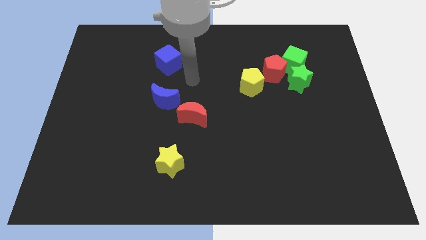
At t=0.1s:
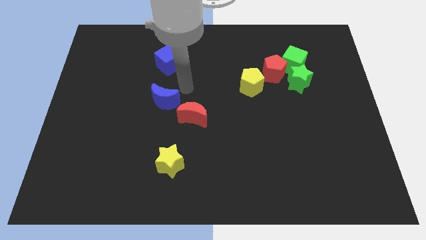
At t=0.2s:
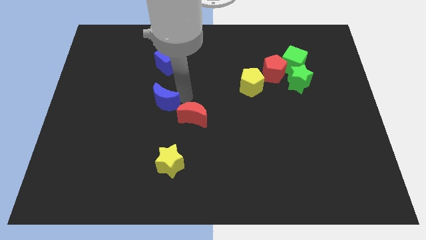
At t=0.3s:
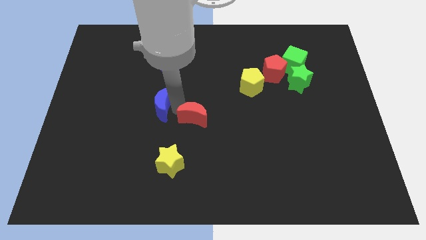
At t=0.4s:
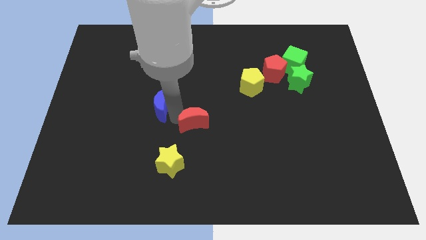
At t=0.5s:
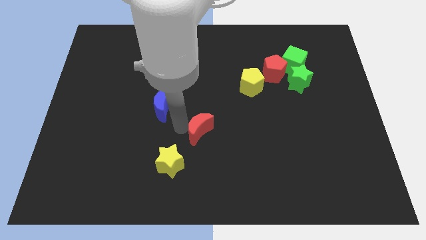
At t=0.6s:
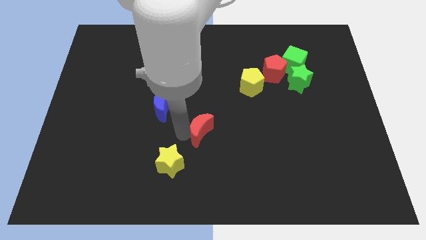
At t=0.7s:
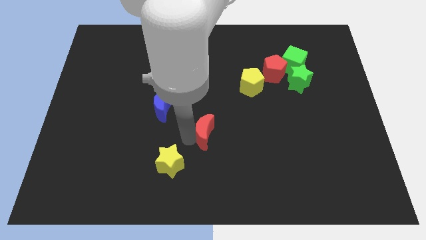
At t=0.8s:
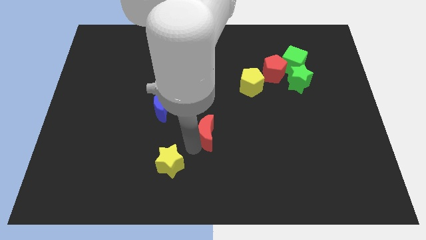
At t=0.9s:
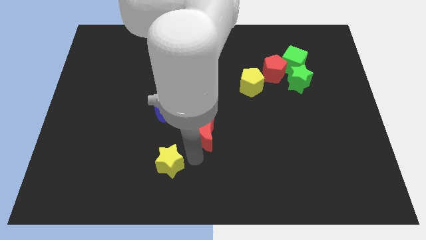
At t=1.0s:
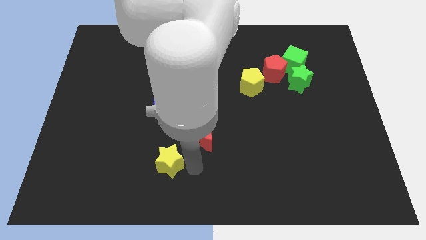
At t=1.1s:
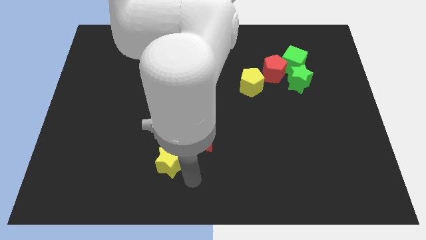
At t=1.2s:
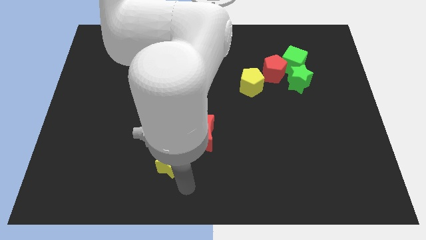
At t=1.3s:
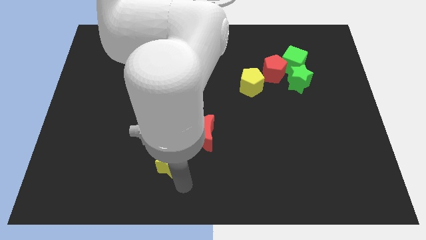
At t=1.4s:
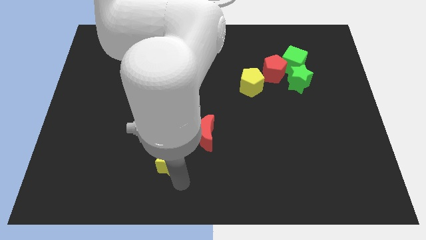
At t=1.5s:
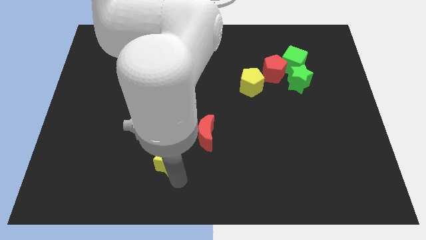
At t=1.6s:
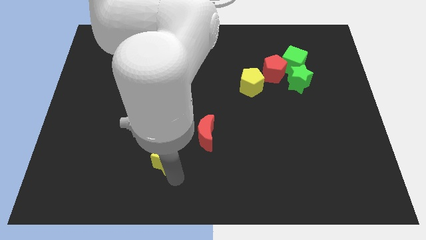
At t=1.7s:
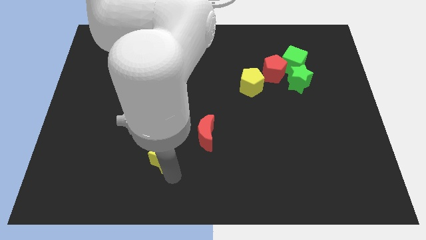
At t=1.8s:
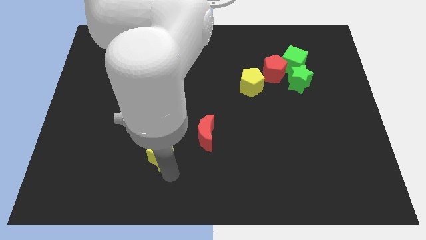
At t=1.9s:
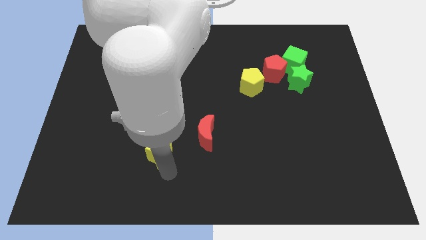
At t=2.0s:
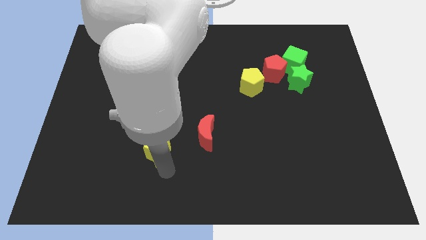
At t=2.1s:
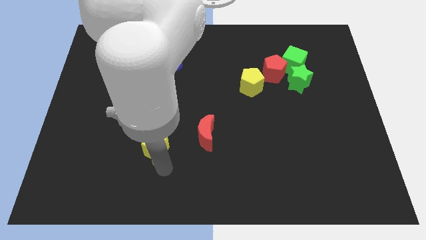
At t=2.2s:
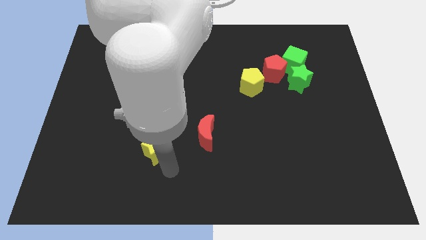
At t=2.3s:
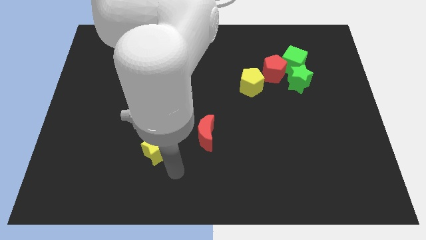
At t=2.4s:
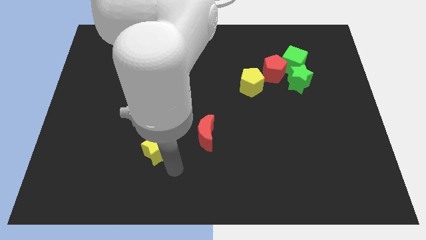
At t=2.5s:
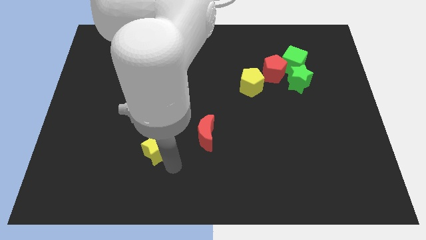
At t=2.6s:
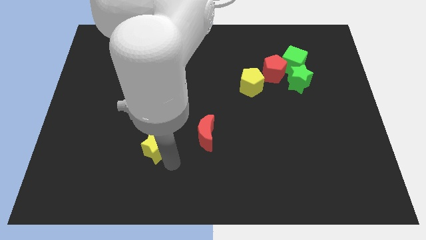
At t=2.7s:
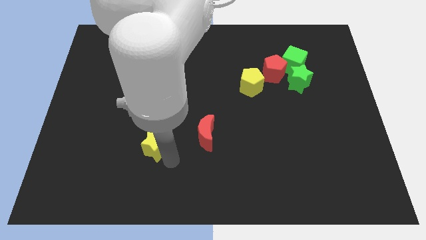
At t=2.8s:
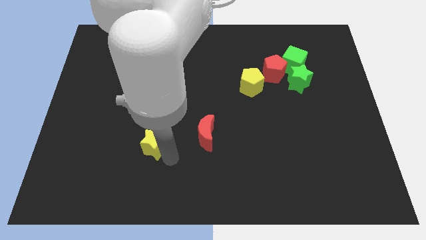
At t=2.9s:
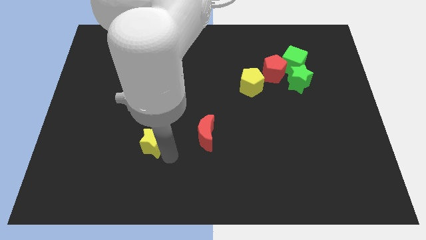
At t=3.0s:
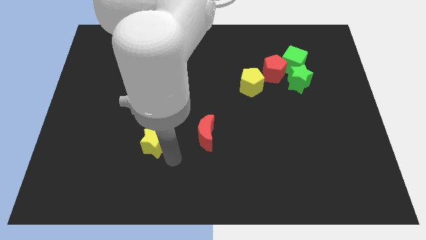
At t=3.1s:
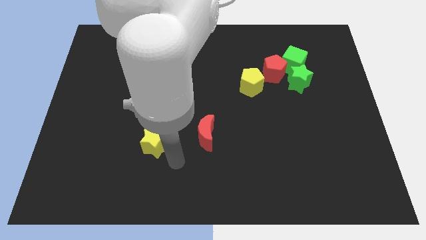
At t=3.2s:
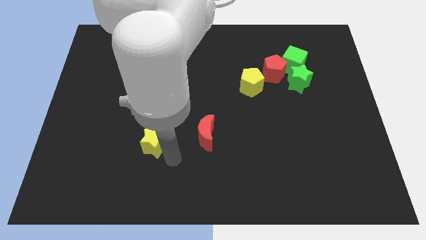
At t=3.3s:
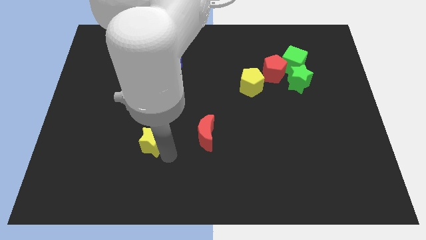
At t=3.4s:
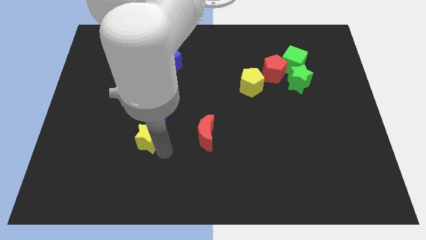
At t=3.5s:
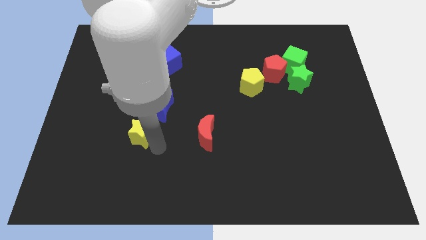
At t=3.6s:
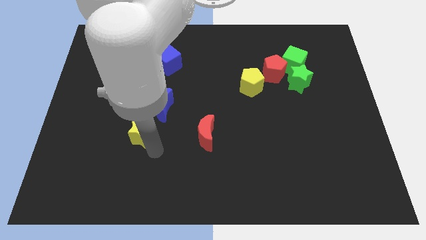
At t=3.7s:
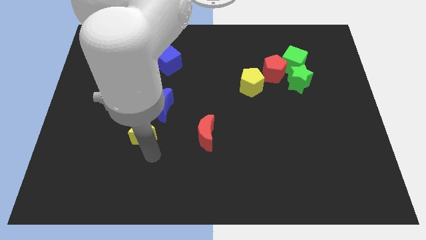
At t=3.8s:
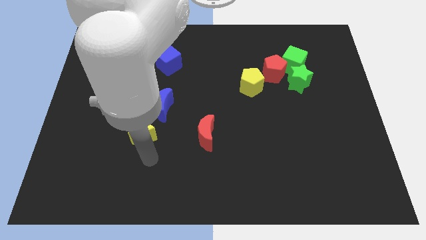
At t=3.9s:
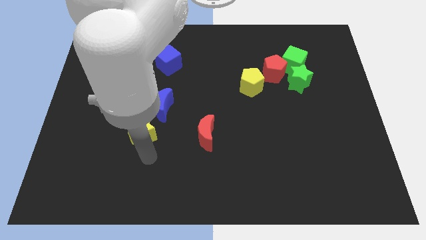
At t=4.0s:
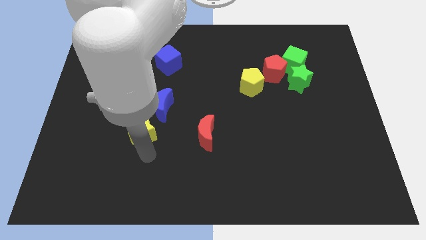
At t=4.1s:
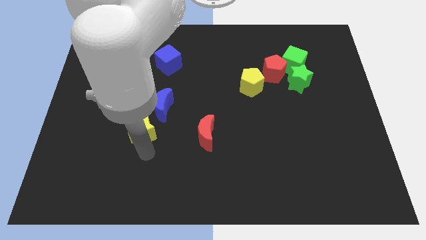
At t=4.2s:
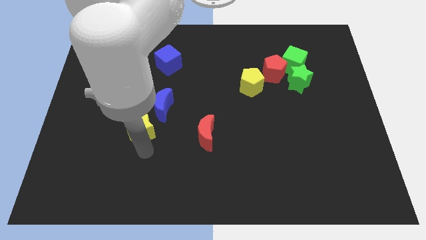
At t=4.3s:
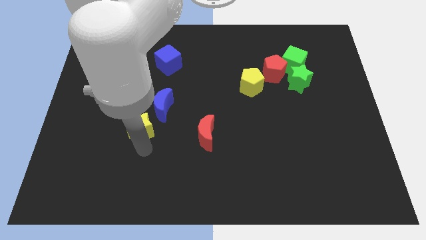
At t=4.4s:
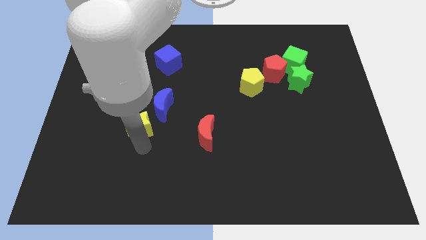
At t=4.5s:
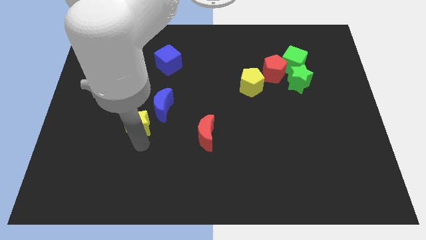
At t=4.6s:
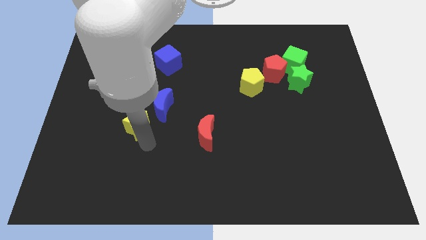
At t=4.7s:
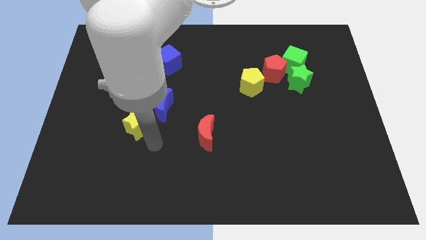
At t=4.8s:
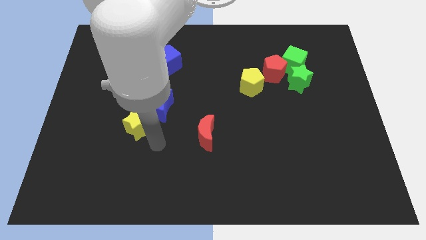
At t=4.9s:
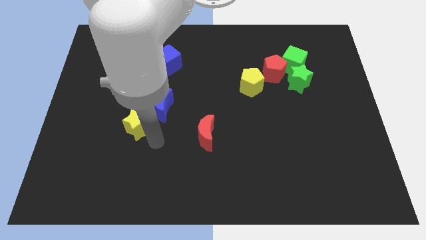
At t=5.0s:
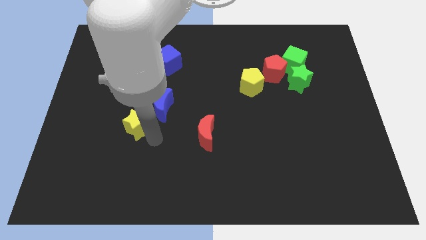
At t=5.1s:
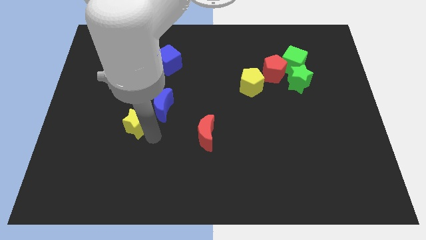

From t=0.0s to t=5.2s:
push the yellow star just left of the blue moon

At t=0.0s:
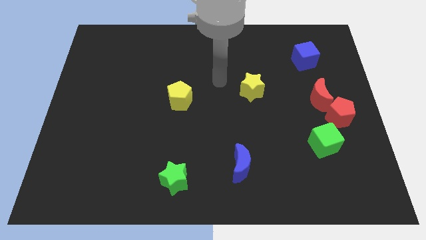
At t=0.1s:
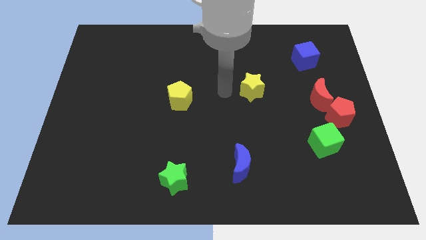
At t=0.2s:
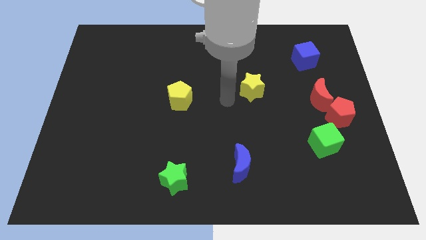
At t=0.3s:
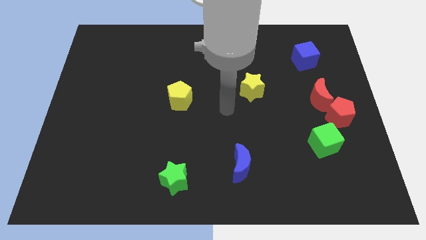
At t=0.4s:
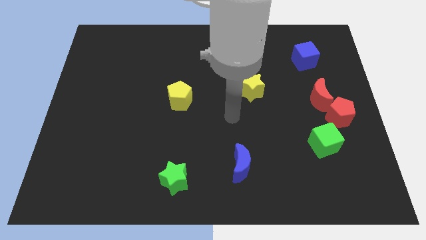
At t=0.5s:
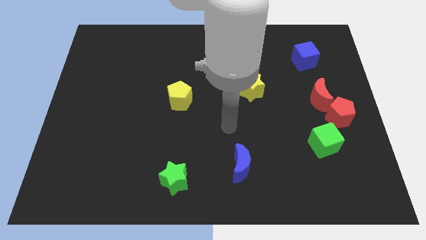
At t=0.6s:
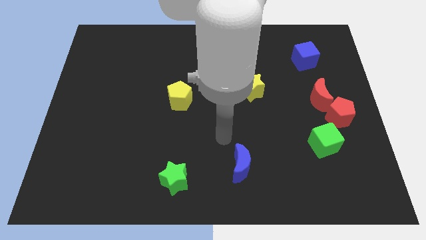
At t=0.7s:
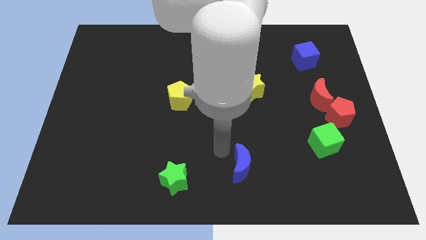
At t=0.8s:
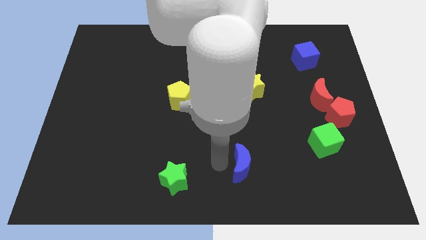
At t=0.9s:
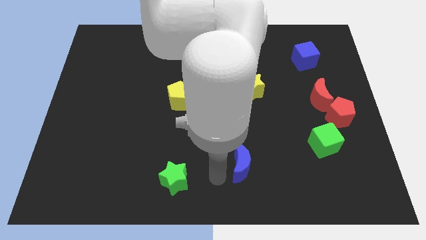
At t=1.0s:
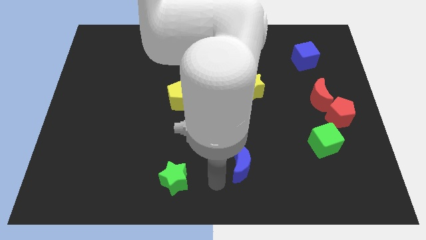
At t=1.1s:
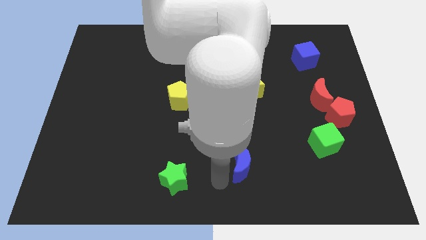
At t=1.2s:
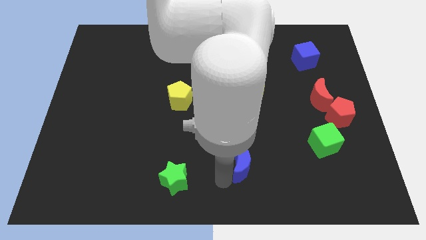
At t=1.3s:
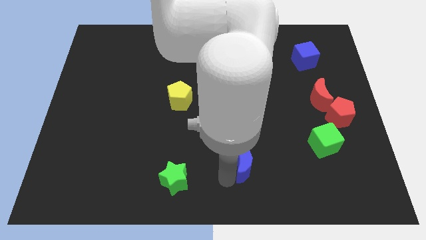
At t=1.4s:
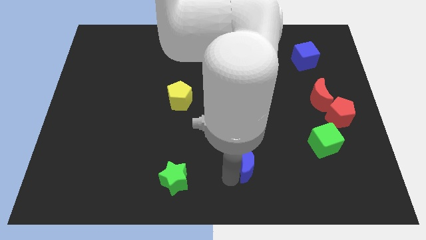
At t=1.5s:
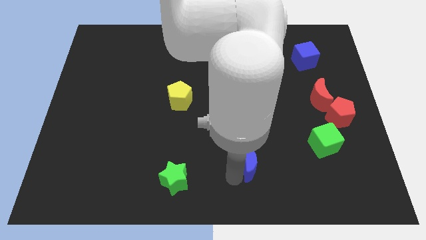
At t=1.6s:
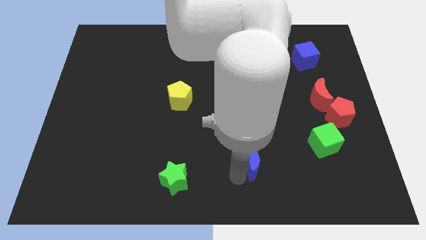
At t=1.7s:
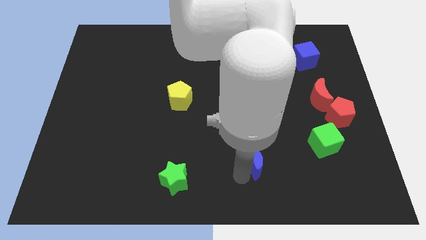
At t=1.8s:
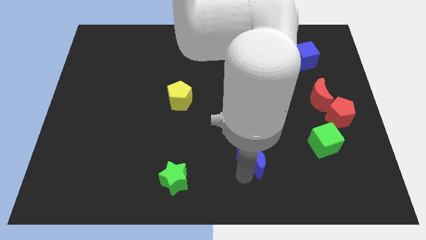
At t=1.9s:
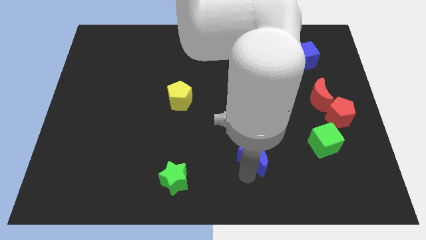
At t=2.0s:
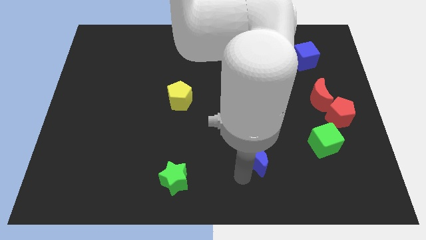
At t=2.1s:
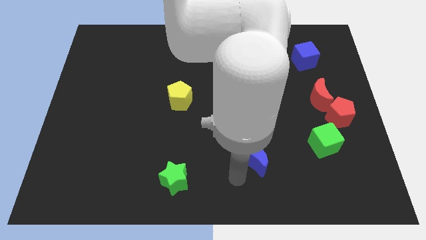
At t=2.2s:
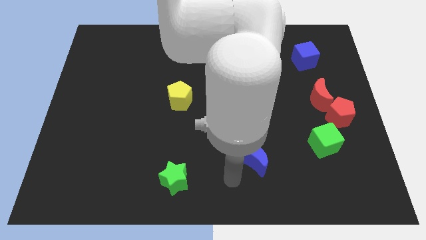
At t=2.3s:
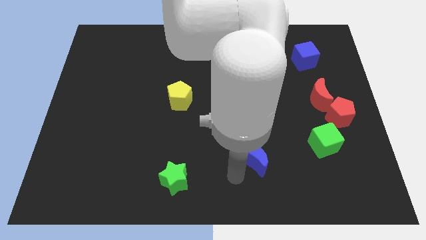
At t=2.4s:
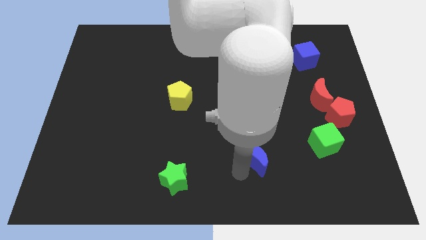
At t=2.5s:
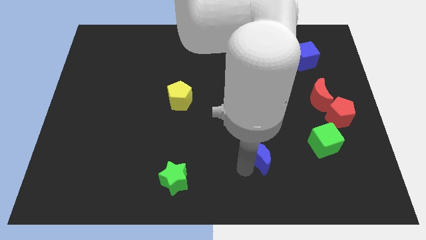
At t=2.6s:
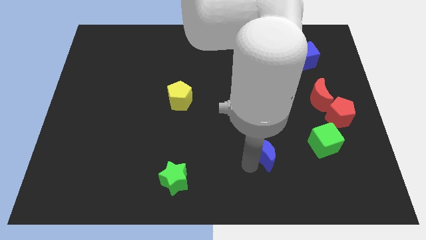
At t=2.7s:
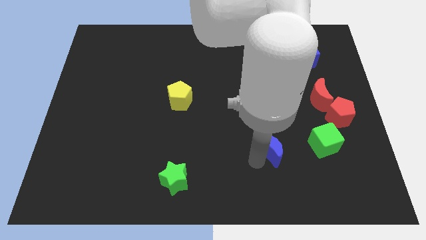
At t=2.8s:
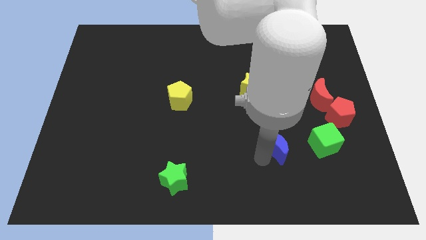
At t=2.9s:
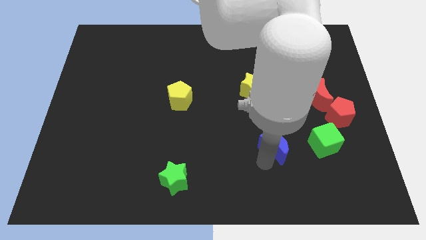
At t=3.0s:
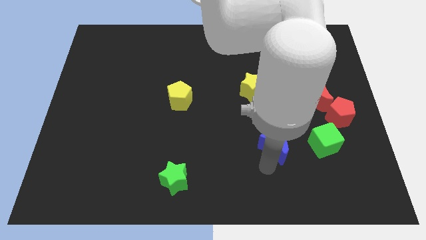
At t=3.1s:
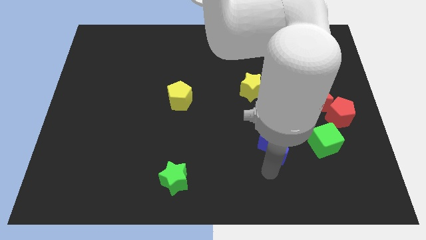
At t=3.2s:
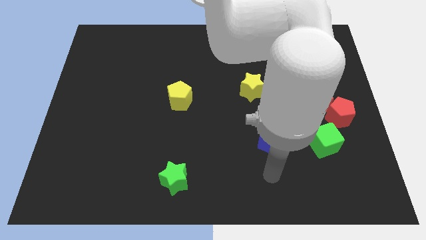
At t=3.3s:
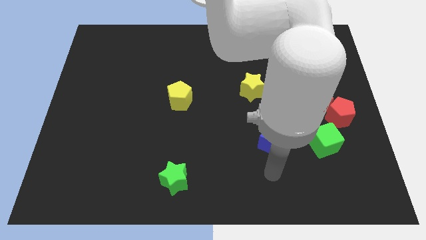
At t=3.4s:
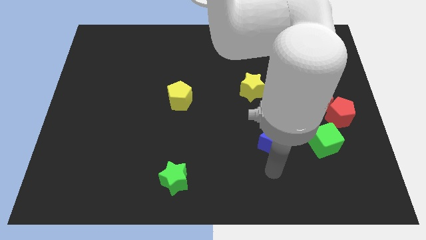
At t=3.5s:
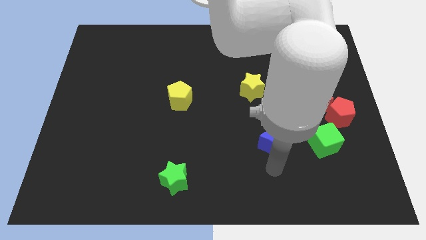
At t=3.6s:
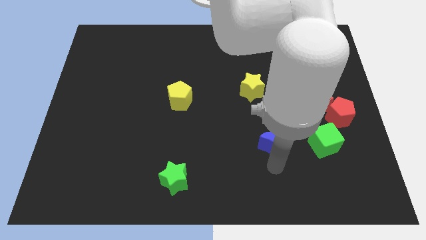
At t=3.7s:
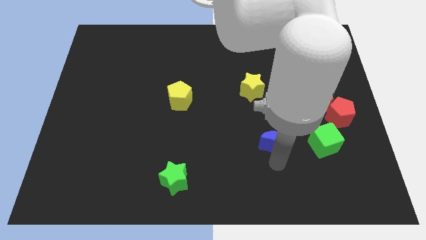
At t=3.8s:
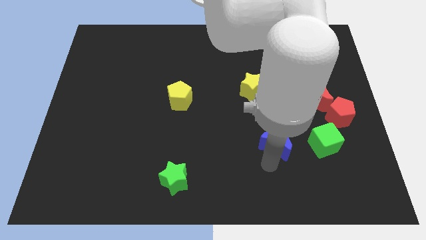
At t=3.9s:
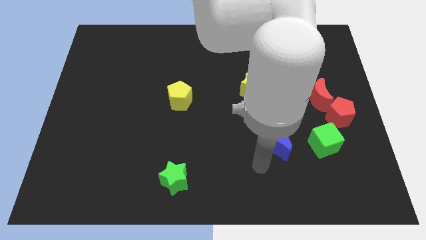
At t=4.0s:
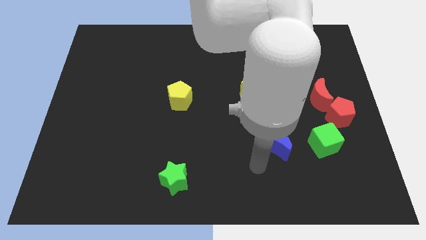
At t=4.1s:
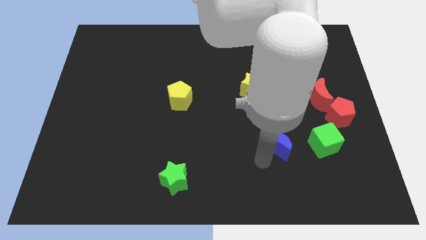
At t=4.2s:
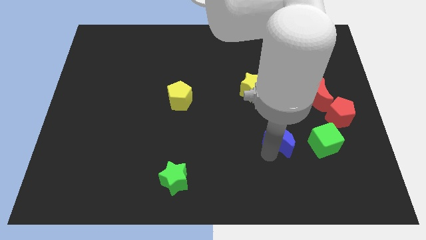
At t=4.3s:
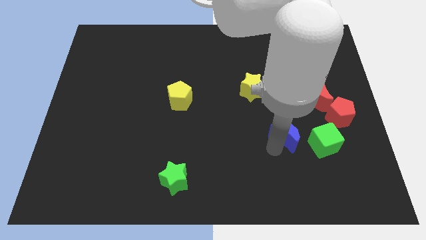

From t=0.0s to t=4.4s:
slide the blue moon diagonally up and to the left of the green cube
